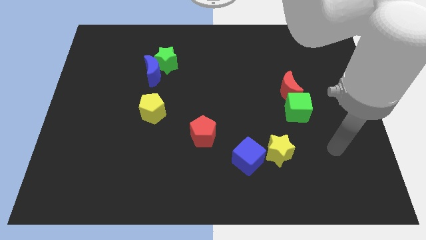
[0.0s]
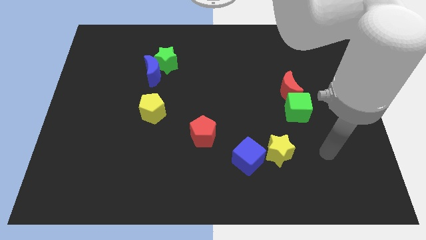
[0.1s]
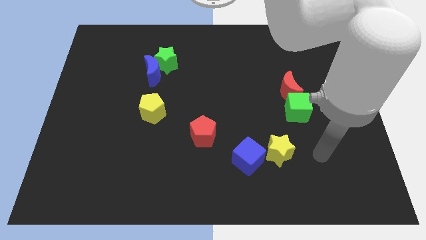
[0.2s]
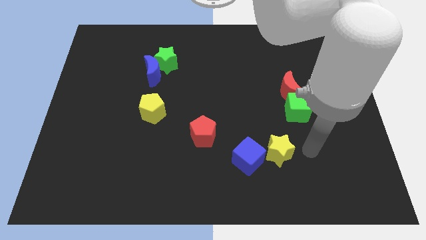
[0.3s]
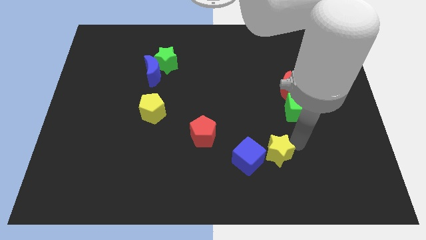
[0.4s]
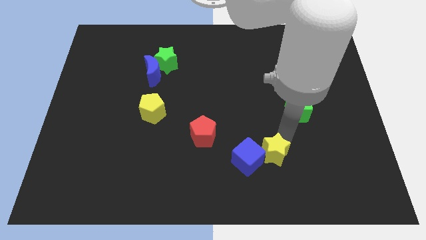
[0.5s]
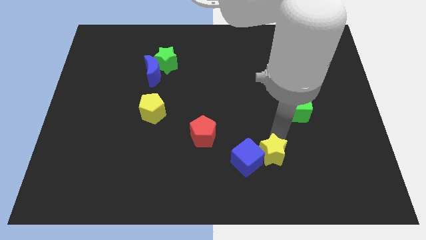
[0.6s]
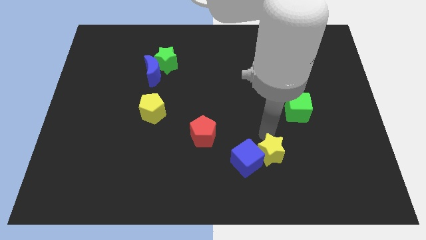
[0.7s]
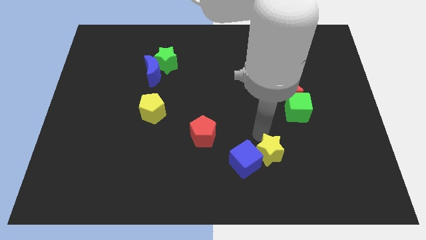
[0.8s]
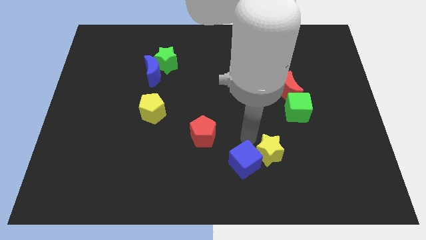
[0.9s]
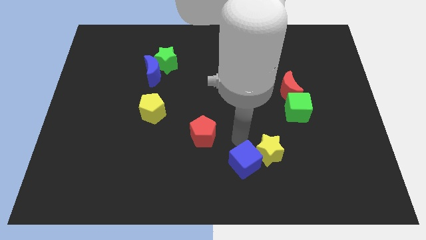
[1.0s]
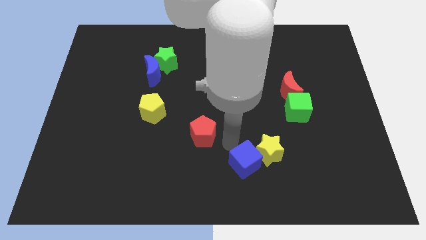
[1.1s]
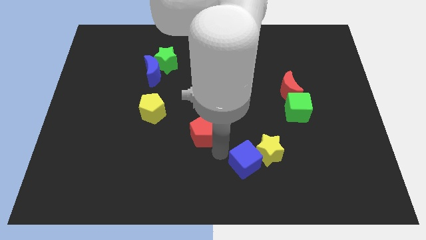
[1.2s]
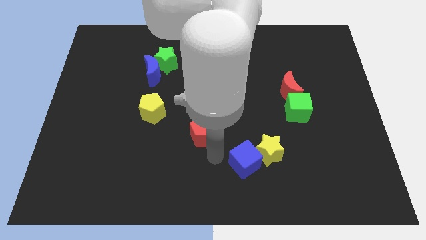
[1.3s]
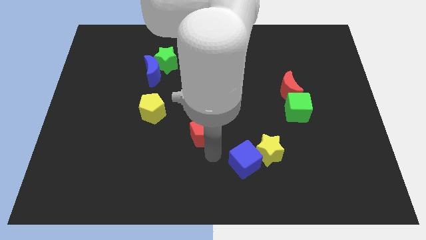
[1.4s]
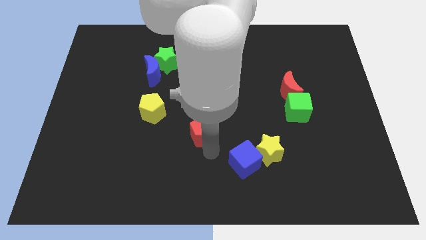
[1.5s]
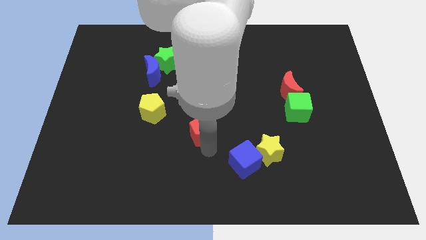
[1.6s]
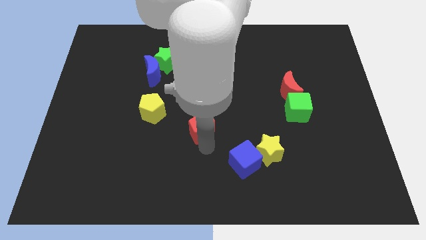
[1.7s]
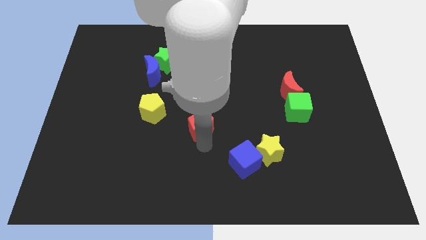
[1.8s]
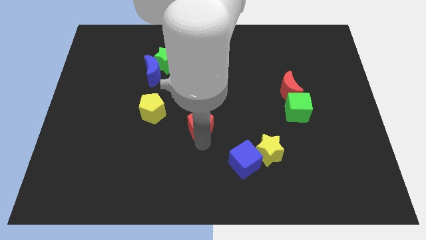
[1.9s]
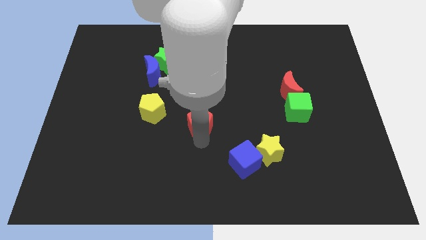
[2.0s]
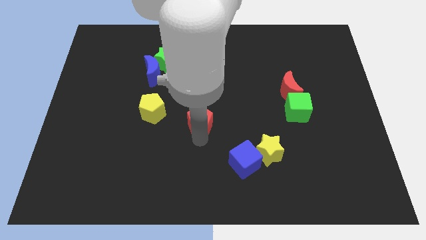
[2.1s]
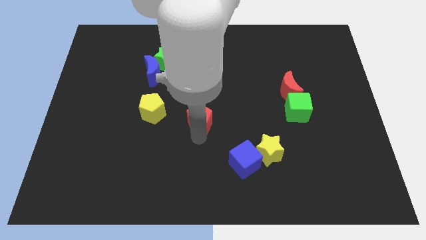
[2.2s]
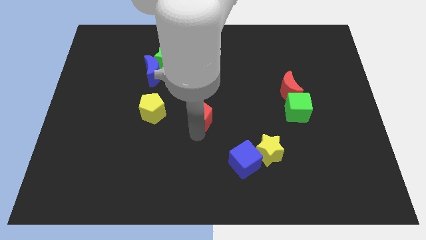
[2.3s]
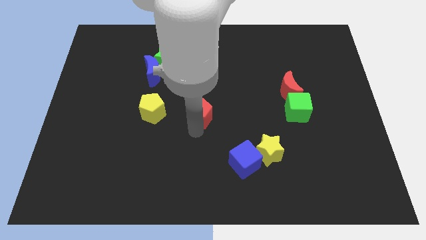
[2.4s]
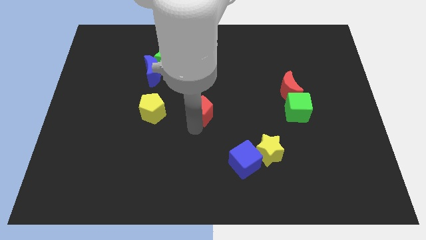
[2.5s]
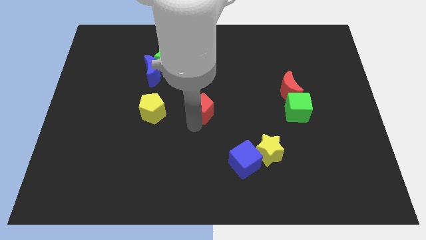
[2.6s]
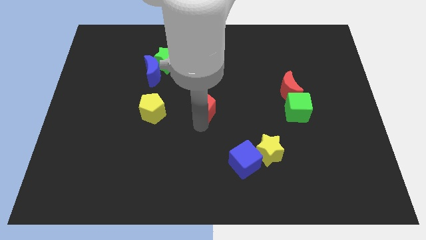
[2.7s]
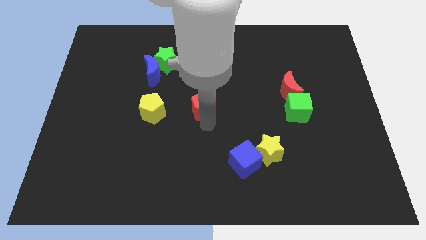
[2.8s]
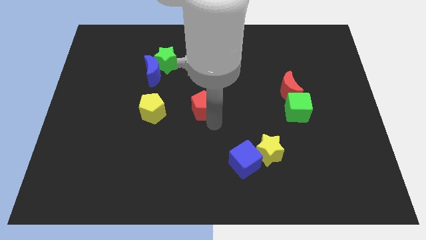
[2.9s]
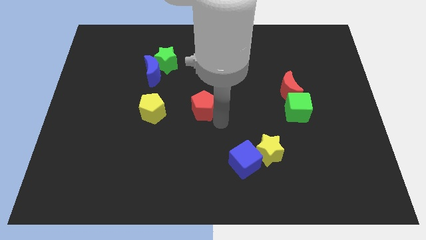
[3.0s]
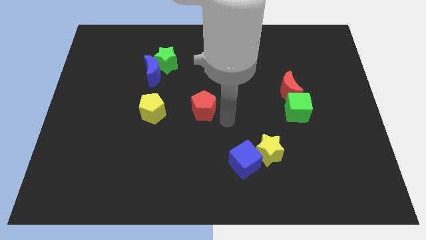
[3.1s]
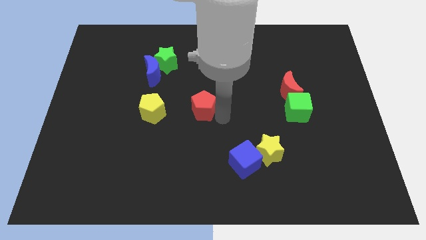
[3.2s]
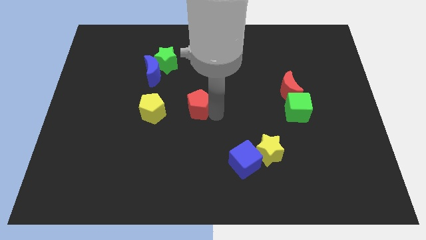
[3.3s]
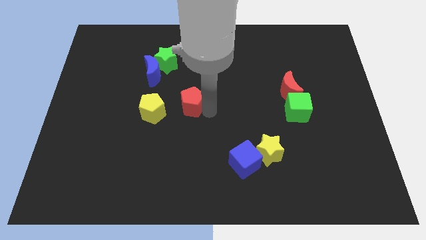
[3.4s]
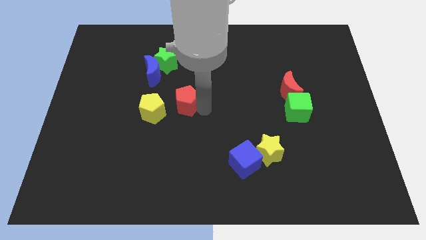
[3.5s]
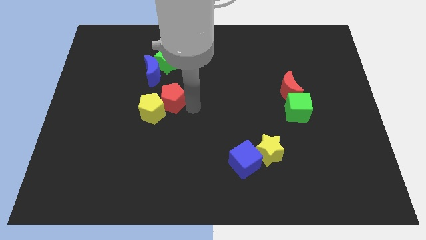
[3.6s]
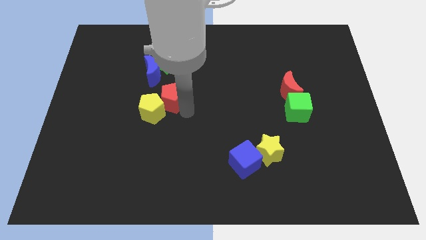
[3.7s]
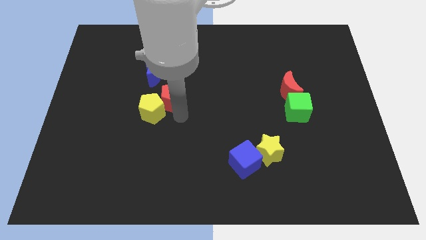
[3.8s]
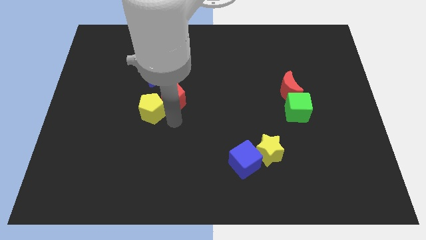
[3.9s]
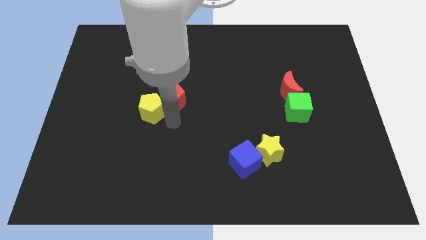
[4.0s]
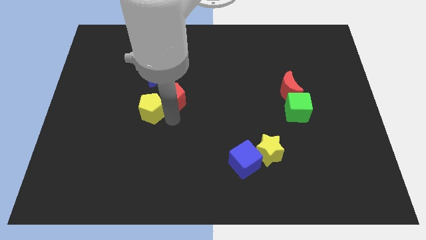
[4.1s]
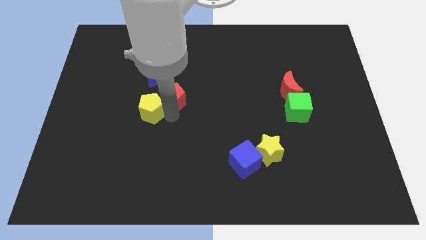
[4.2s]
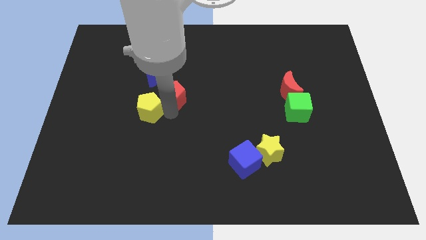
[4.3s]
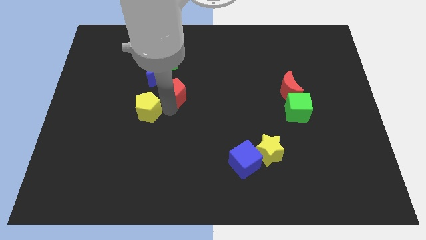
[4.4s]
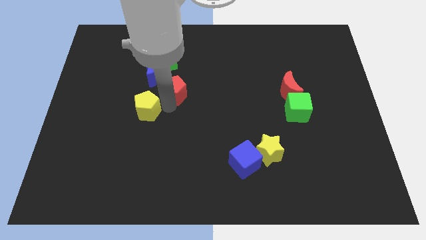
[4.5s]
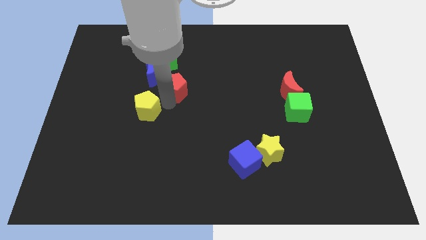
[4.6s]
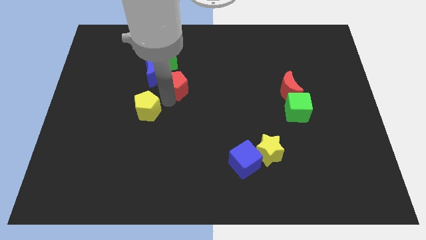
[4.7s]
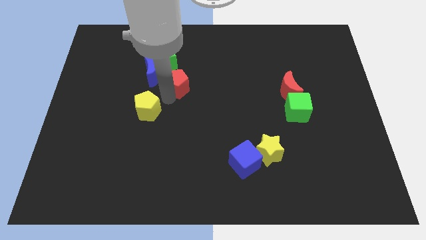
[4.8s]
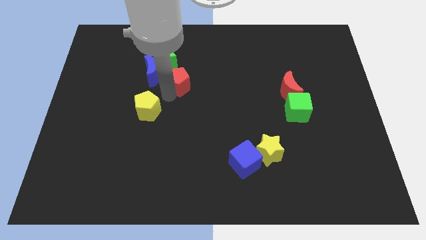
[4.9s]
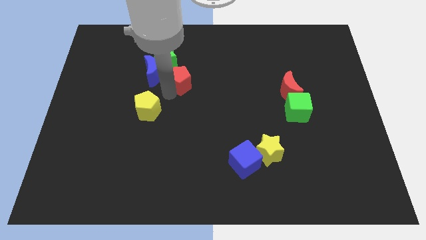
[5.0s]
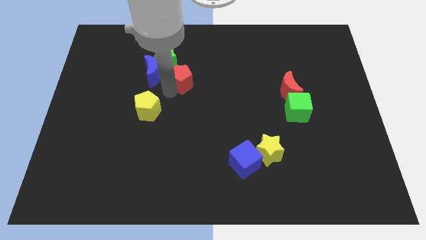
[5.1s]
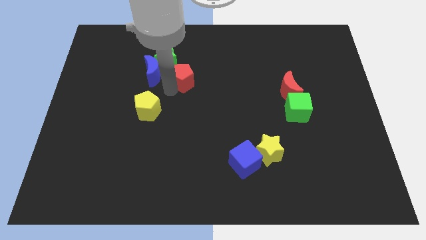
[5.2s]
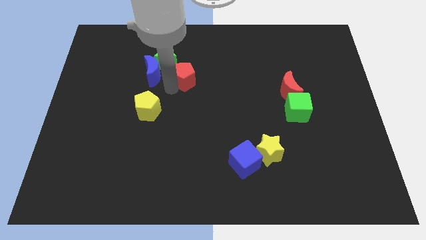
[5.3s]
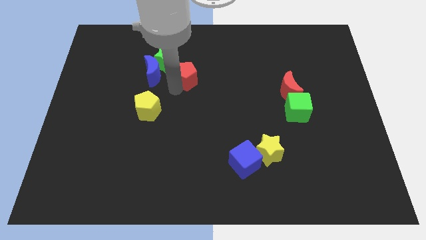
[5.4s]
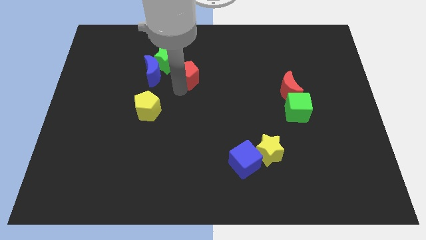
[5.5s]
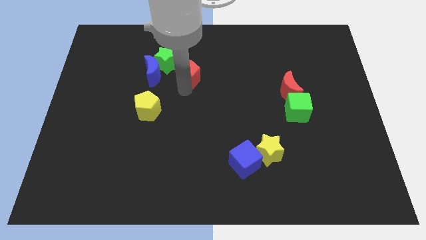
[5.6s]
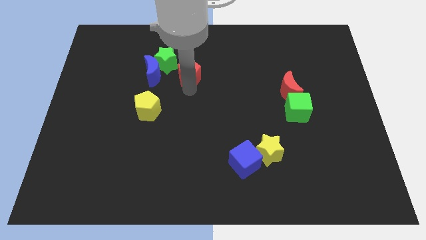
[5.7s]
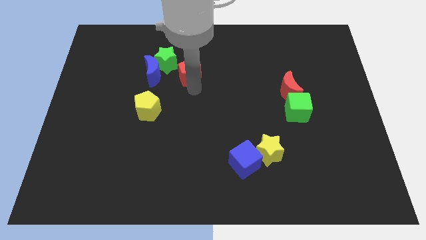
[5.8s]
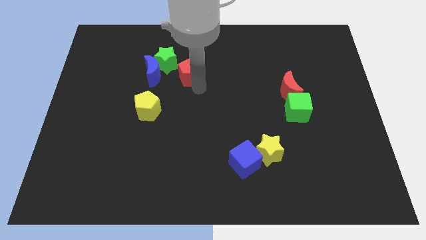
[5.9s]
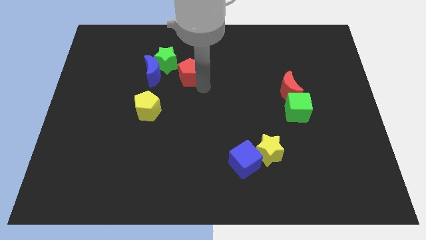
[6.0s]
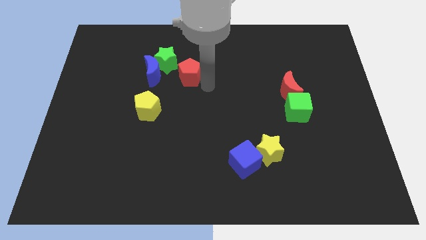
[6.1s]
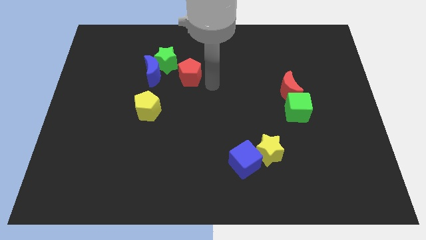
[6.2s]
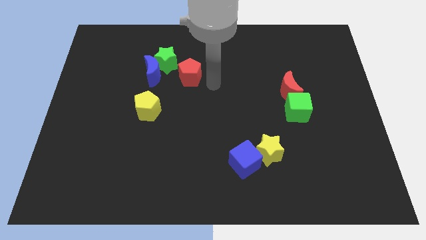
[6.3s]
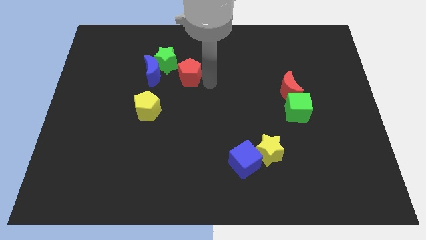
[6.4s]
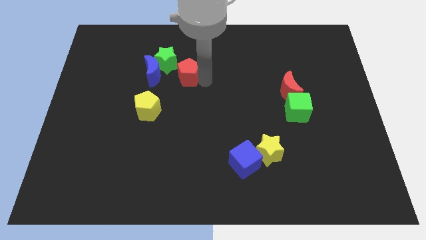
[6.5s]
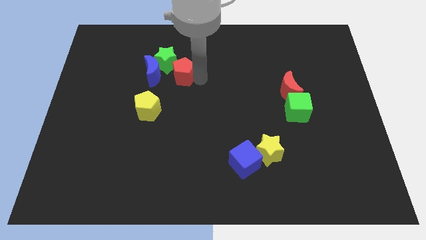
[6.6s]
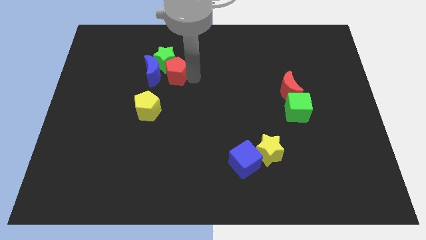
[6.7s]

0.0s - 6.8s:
move the red pentagon to the green star
